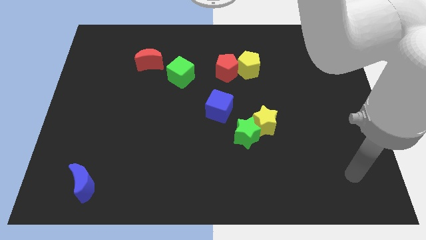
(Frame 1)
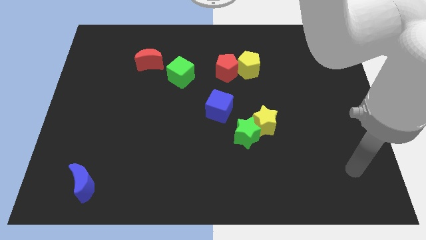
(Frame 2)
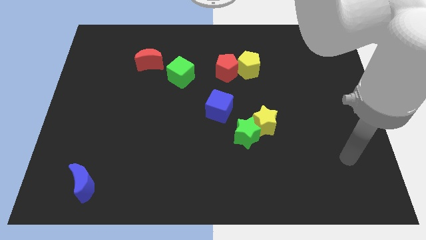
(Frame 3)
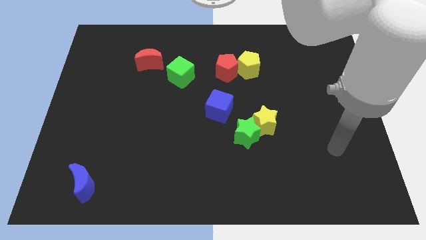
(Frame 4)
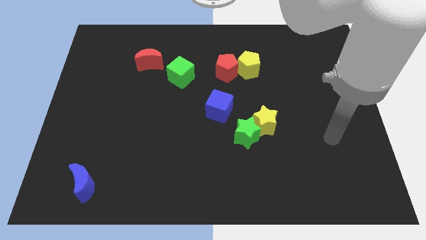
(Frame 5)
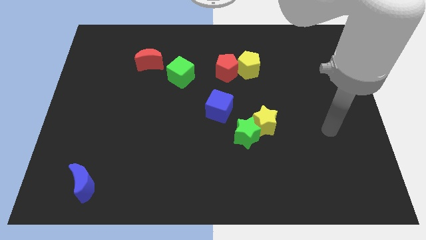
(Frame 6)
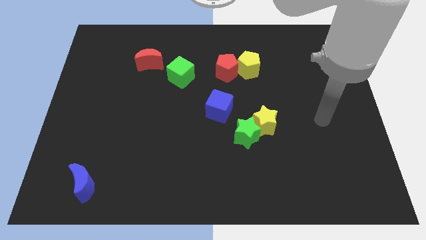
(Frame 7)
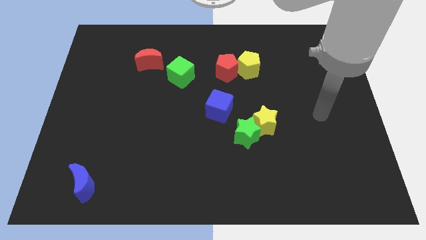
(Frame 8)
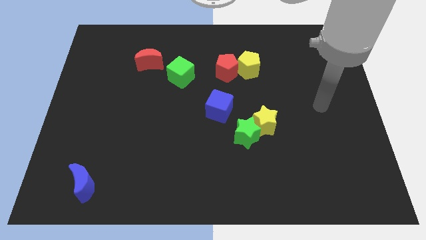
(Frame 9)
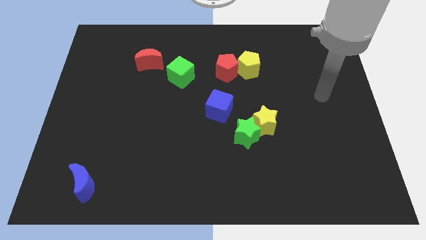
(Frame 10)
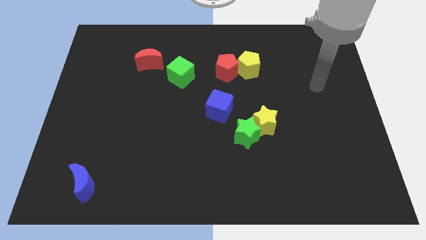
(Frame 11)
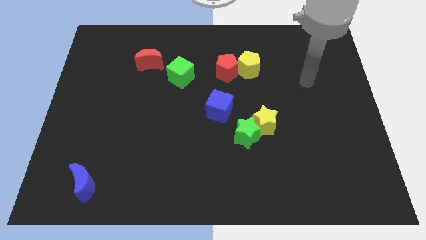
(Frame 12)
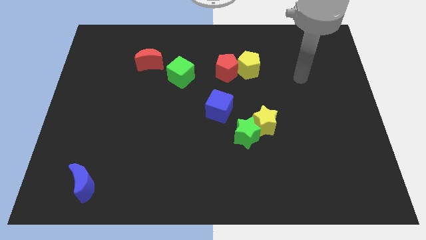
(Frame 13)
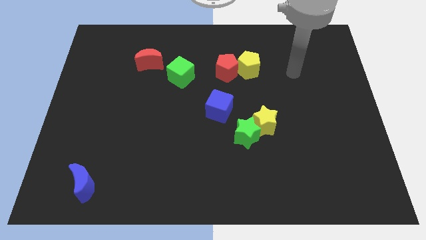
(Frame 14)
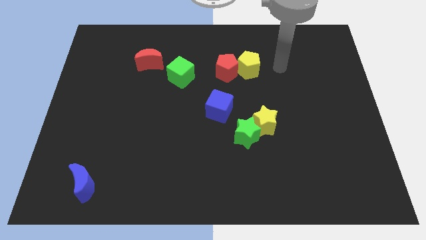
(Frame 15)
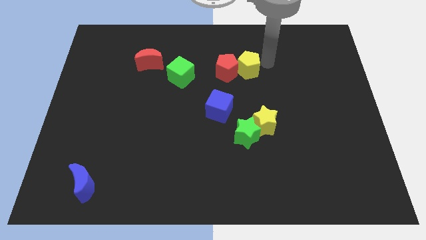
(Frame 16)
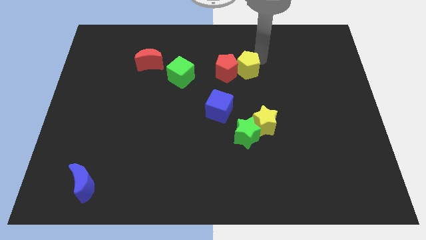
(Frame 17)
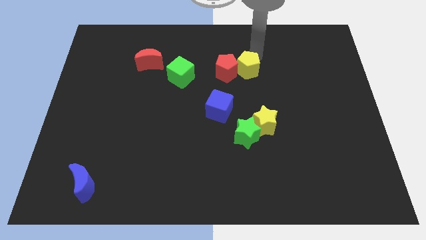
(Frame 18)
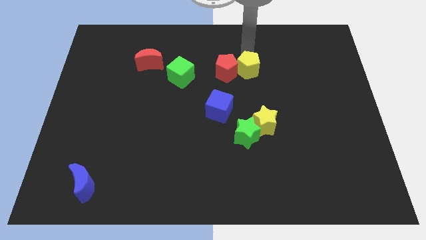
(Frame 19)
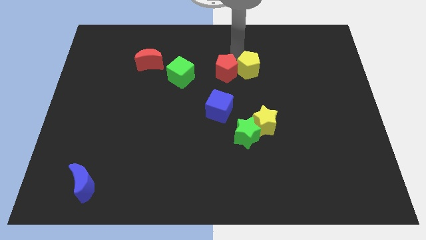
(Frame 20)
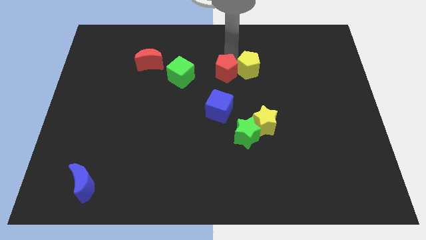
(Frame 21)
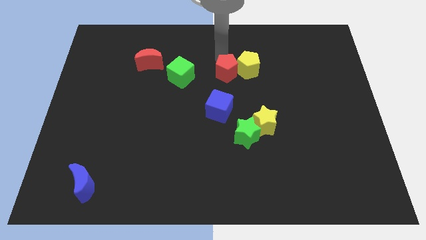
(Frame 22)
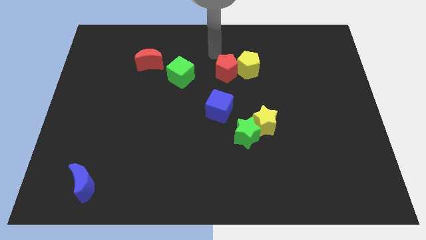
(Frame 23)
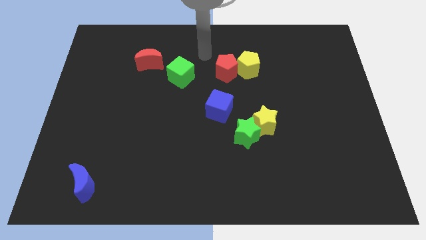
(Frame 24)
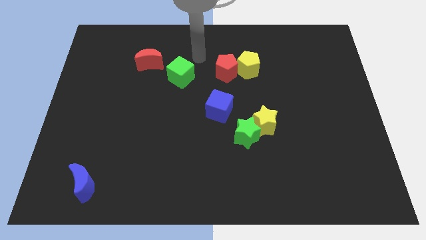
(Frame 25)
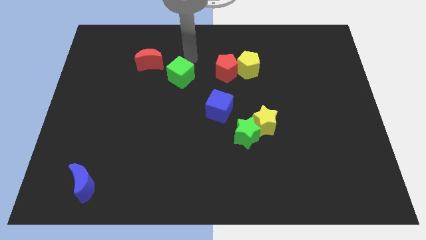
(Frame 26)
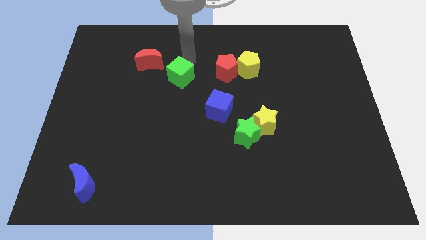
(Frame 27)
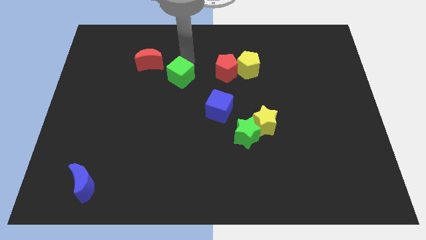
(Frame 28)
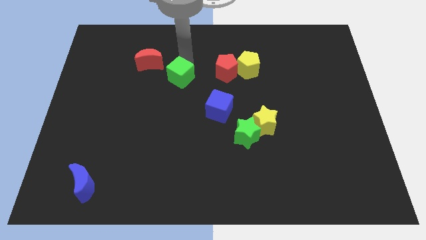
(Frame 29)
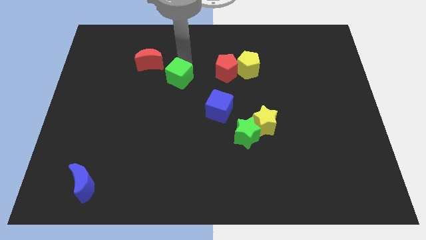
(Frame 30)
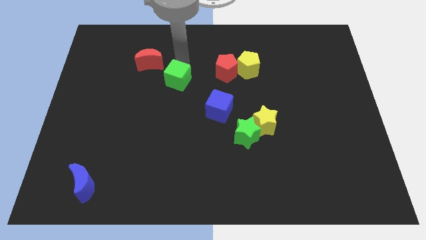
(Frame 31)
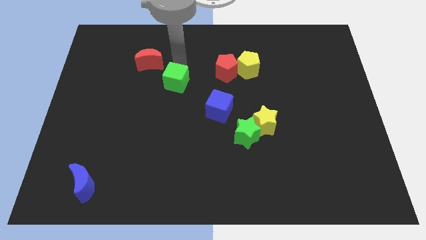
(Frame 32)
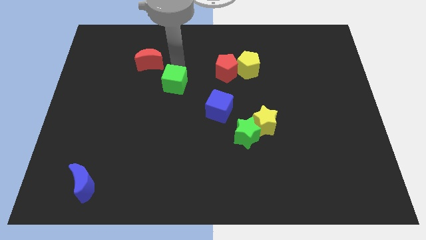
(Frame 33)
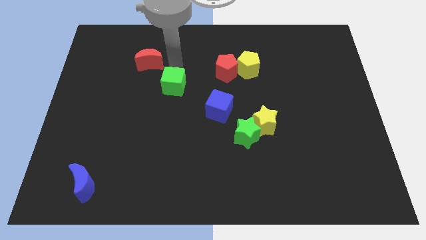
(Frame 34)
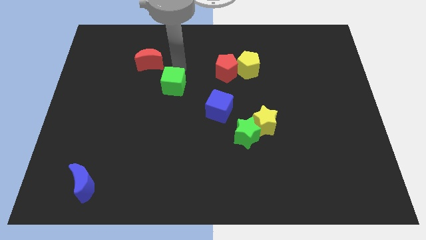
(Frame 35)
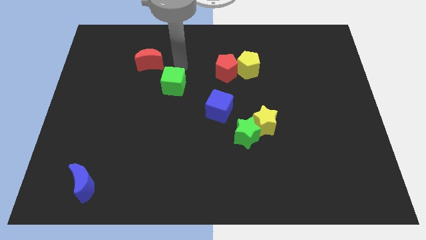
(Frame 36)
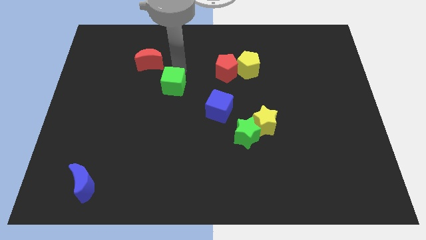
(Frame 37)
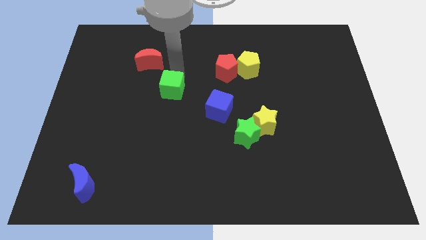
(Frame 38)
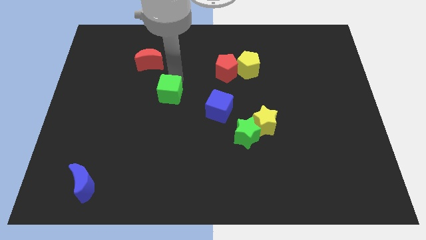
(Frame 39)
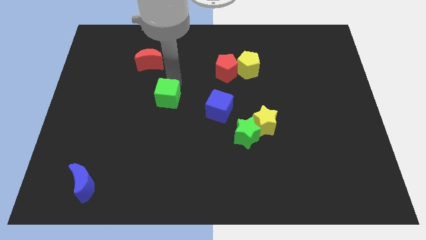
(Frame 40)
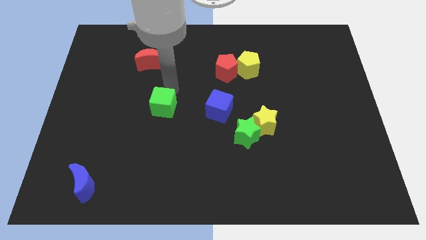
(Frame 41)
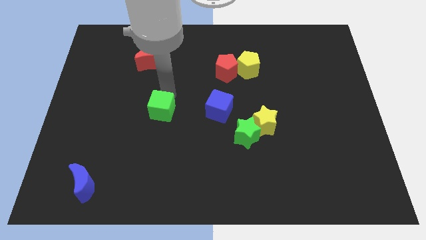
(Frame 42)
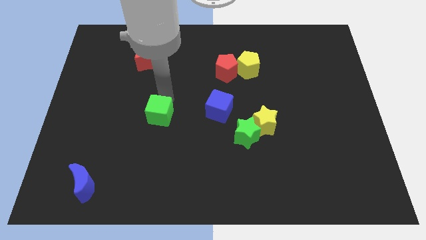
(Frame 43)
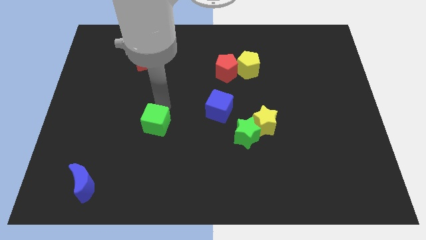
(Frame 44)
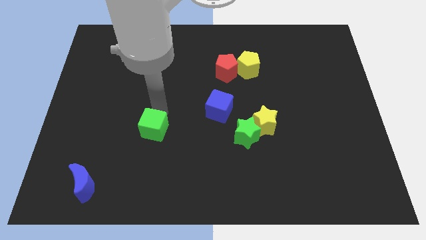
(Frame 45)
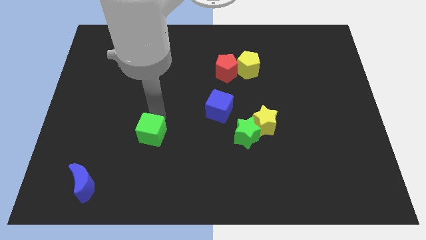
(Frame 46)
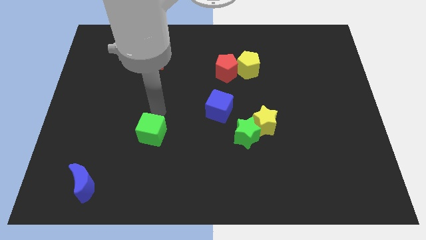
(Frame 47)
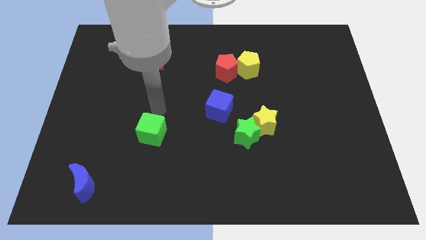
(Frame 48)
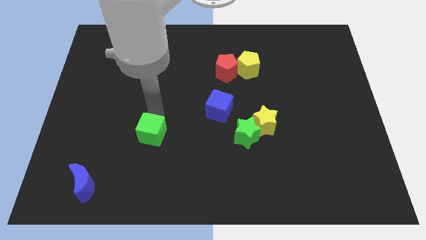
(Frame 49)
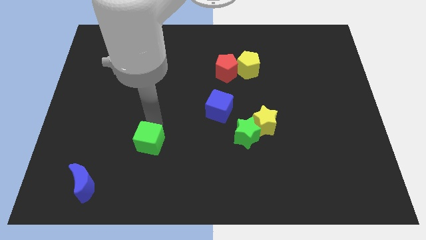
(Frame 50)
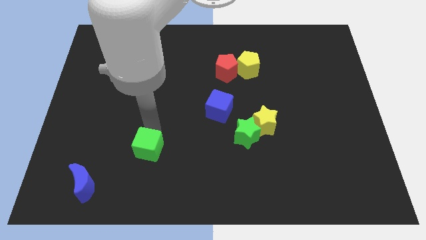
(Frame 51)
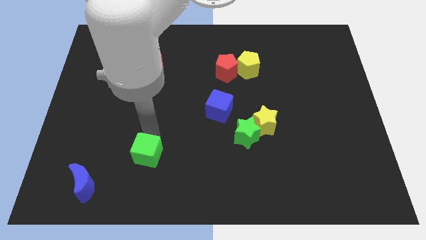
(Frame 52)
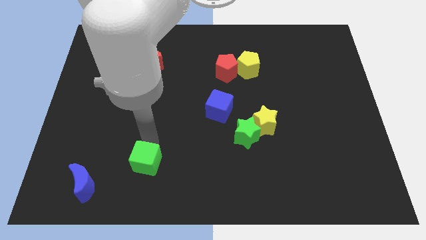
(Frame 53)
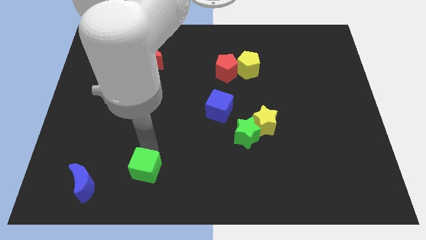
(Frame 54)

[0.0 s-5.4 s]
slide the green cube right of the blue moon

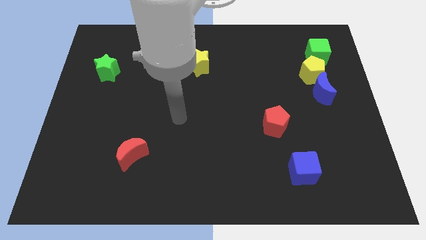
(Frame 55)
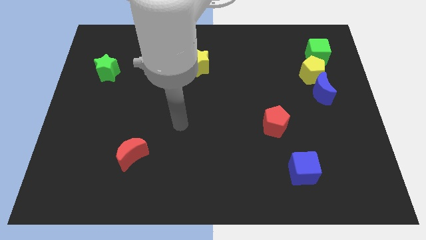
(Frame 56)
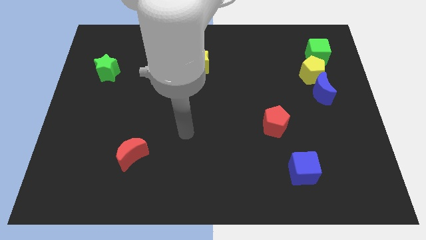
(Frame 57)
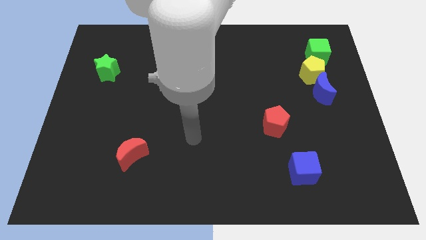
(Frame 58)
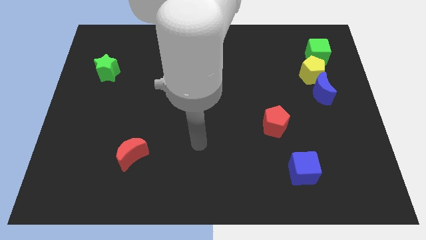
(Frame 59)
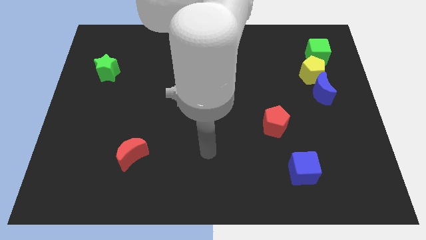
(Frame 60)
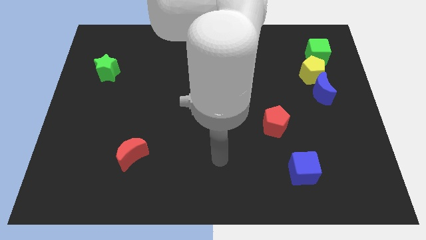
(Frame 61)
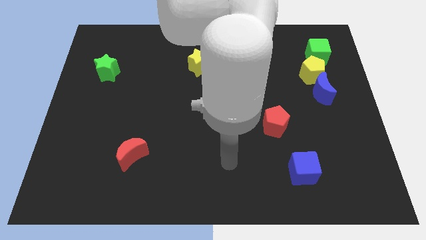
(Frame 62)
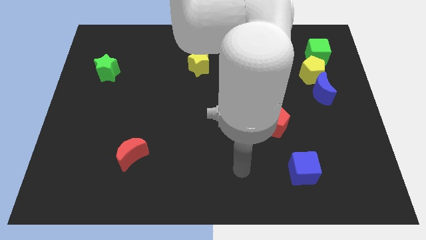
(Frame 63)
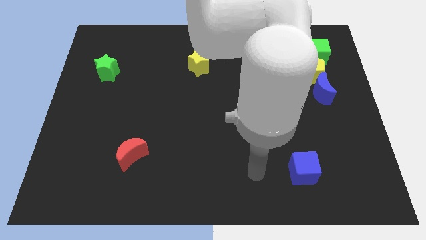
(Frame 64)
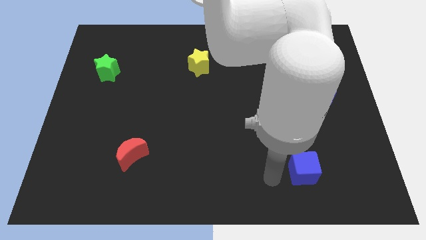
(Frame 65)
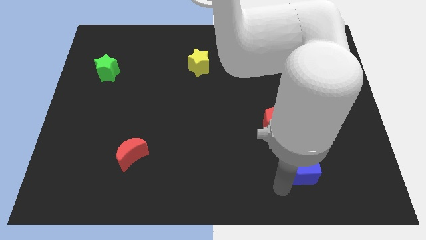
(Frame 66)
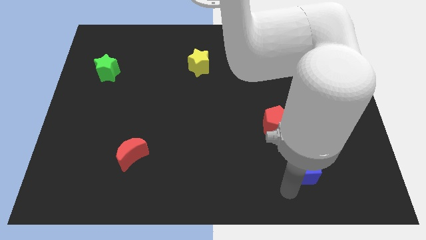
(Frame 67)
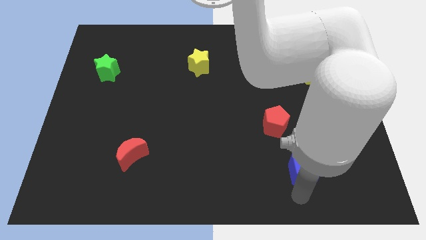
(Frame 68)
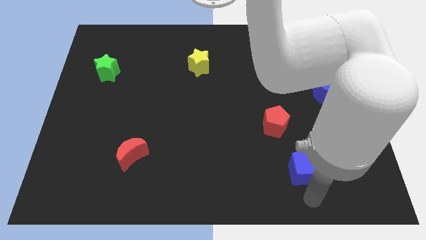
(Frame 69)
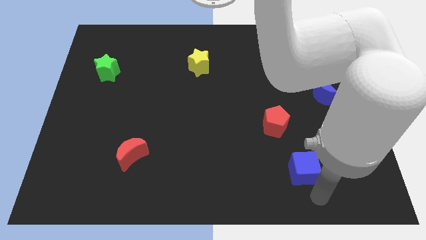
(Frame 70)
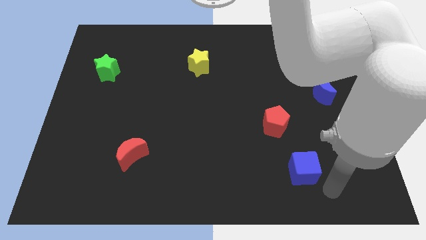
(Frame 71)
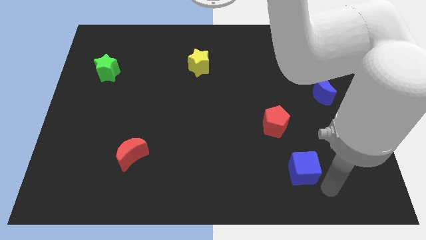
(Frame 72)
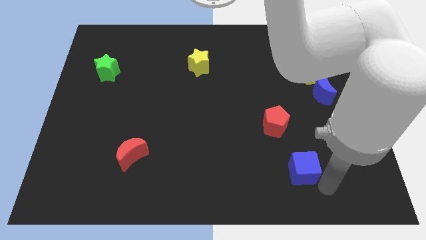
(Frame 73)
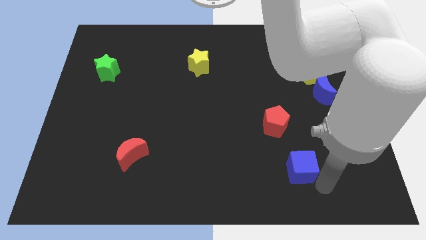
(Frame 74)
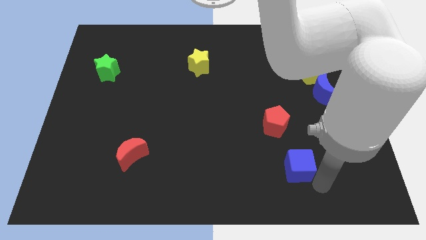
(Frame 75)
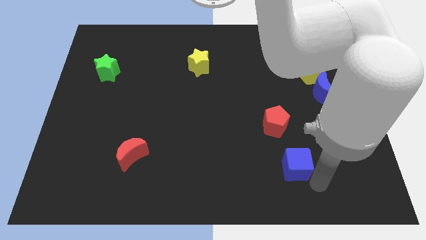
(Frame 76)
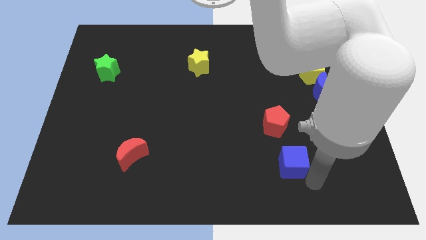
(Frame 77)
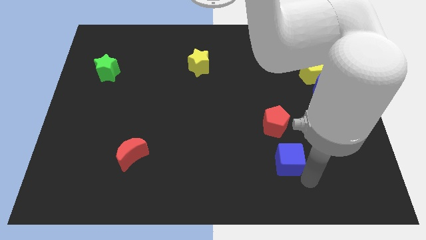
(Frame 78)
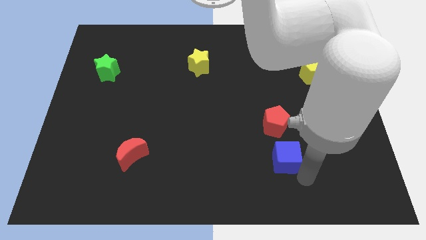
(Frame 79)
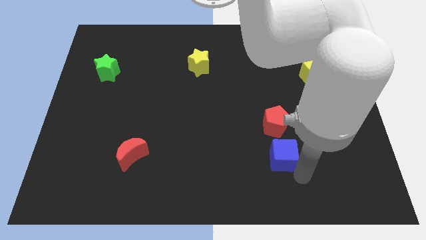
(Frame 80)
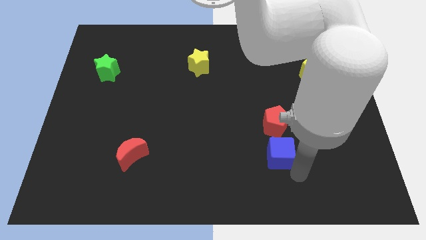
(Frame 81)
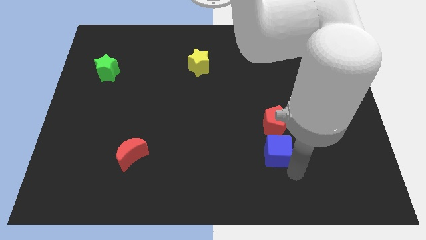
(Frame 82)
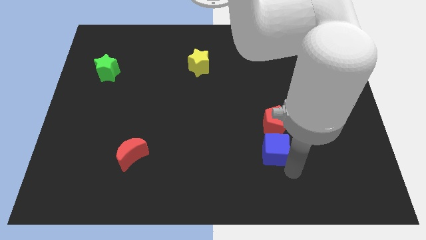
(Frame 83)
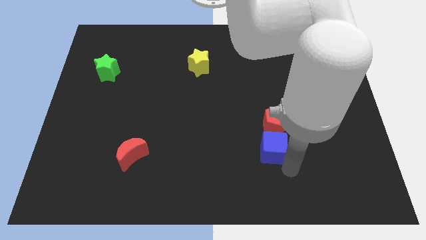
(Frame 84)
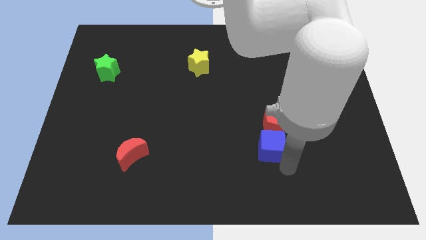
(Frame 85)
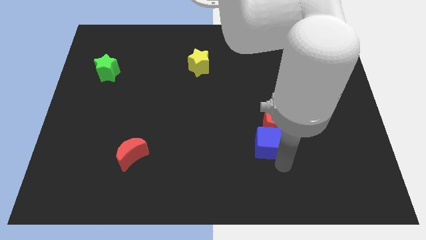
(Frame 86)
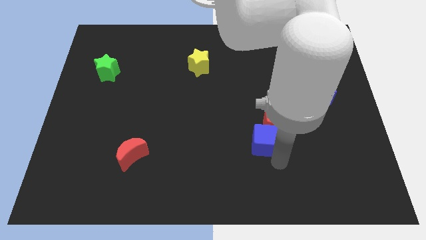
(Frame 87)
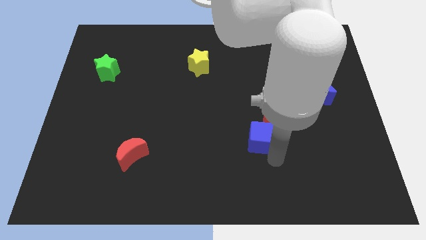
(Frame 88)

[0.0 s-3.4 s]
put the blue cube to the left side of the red pentagon
